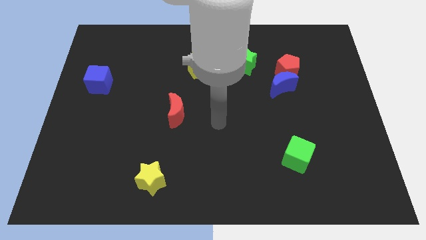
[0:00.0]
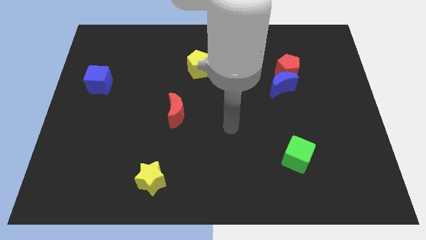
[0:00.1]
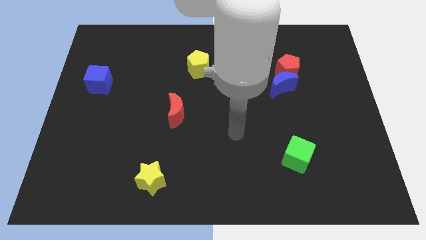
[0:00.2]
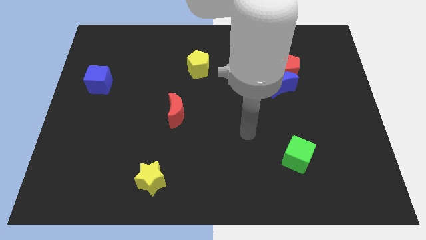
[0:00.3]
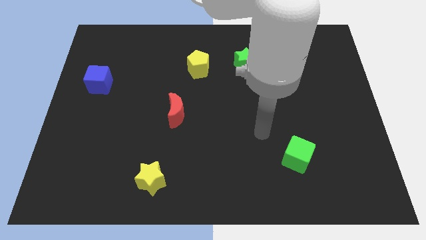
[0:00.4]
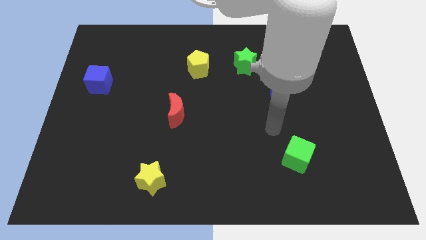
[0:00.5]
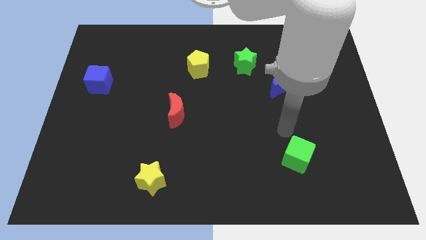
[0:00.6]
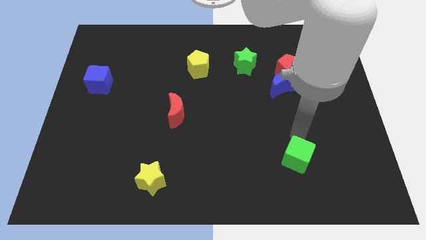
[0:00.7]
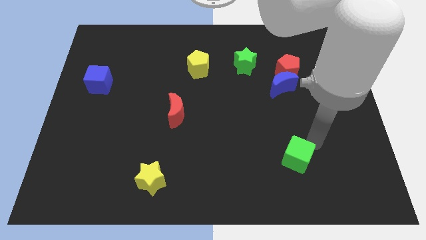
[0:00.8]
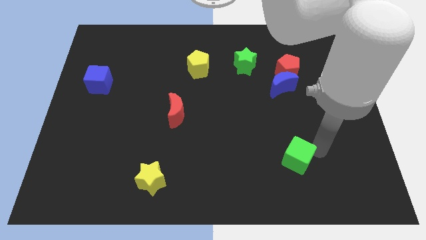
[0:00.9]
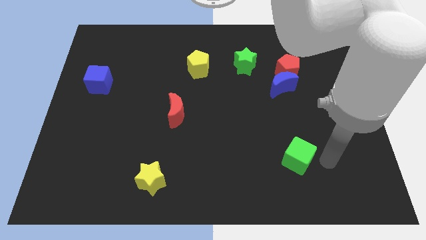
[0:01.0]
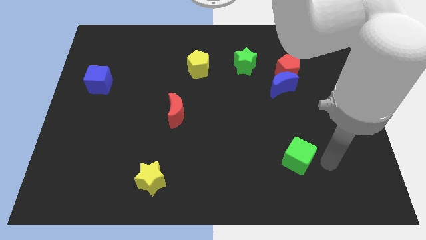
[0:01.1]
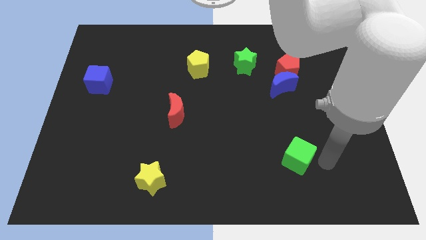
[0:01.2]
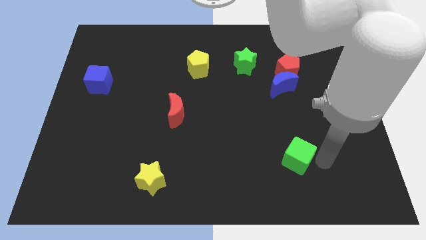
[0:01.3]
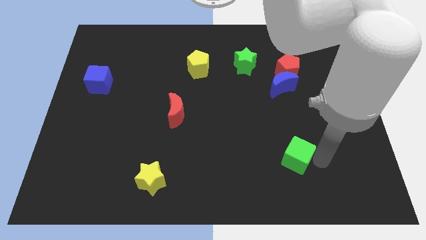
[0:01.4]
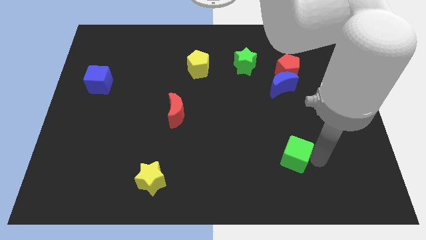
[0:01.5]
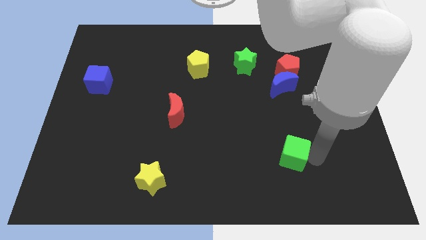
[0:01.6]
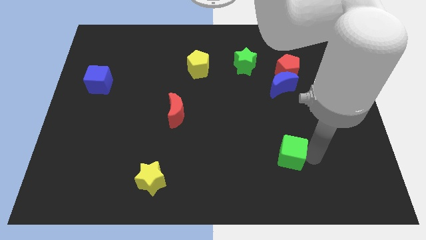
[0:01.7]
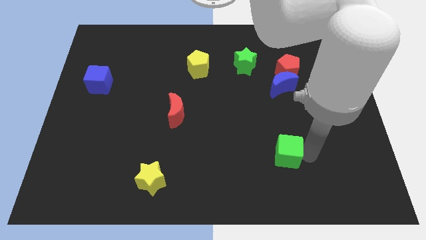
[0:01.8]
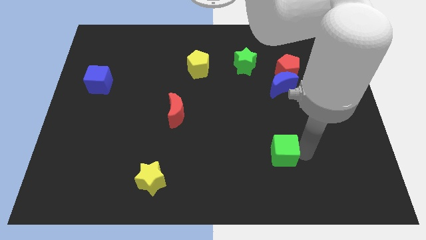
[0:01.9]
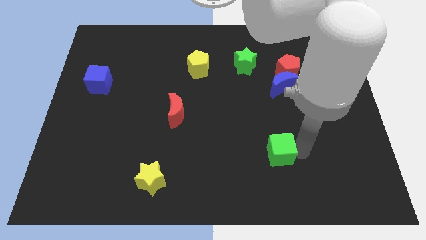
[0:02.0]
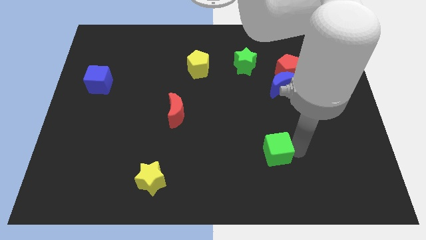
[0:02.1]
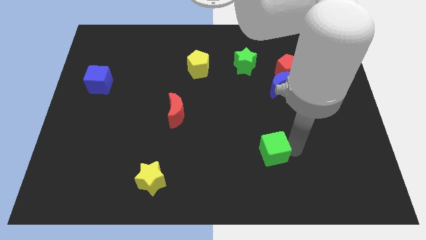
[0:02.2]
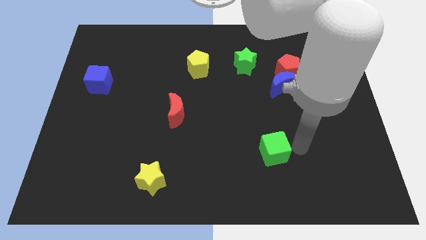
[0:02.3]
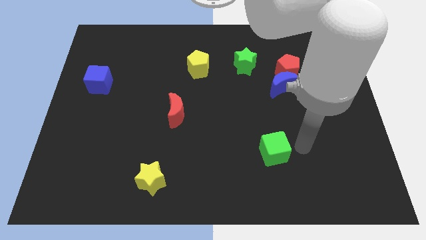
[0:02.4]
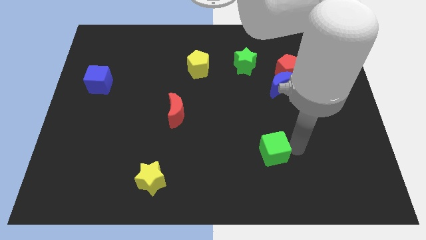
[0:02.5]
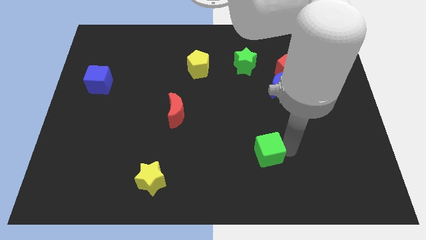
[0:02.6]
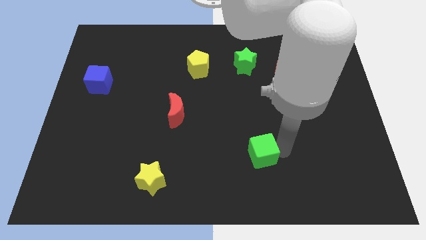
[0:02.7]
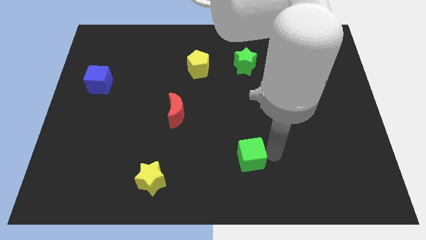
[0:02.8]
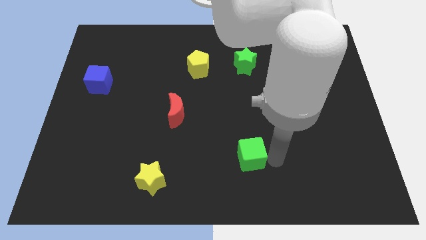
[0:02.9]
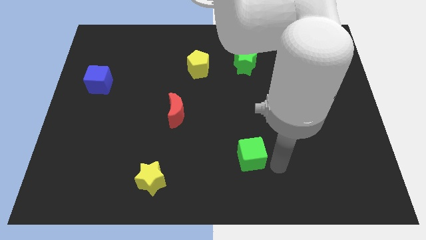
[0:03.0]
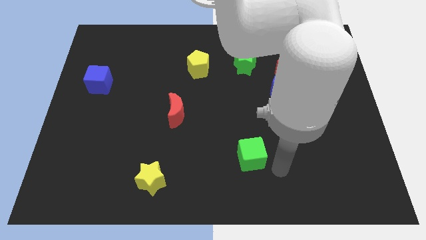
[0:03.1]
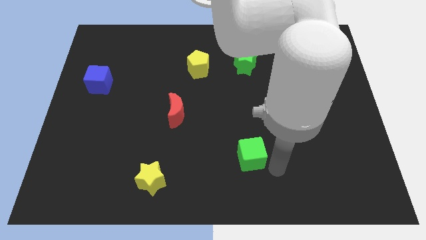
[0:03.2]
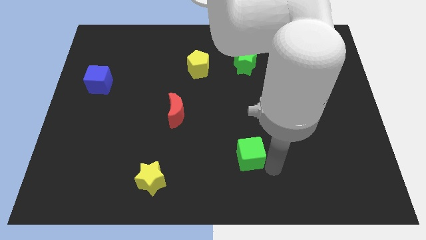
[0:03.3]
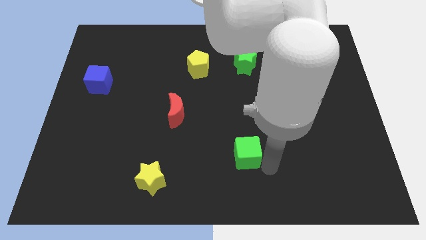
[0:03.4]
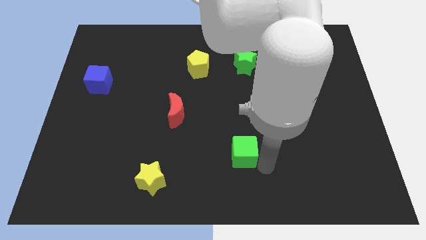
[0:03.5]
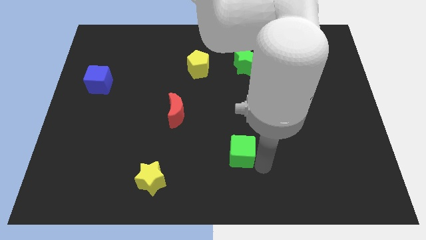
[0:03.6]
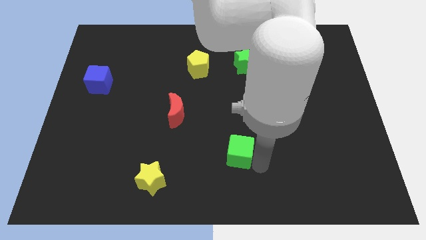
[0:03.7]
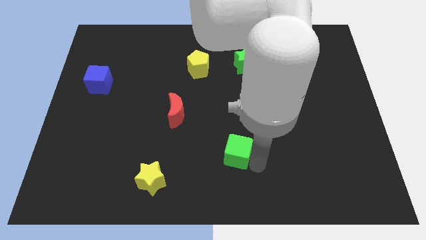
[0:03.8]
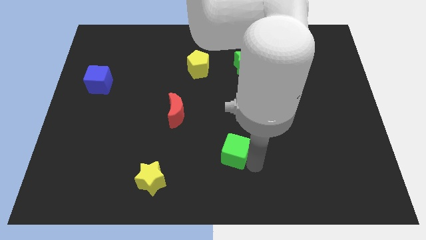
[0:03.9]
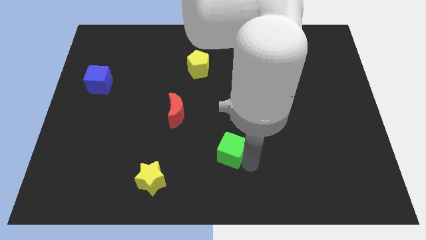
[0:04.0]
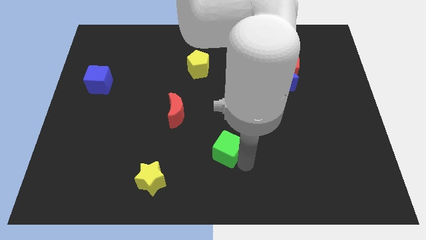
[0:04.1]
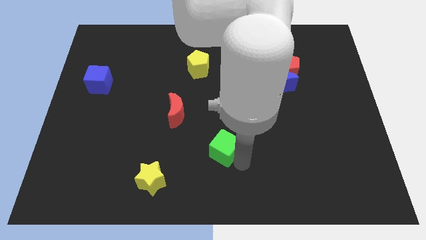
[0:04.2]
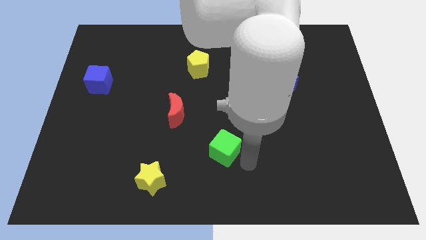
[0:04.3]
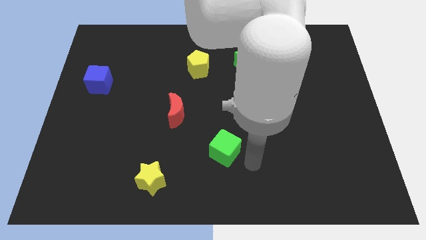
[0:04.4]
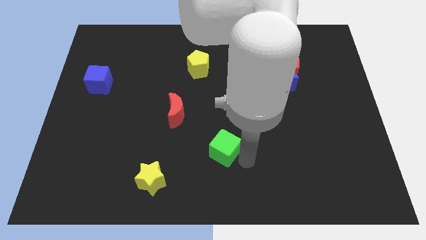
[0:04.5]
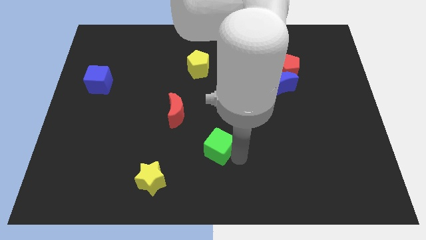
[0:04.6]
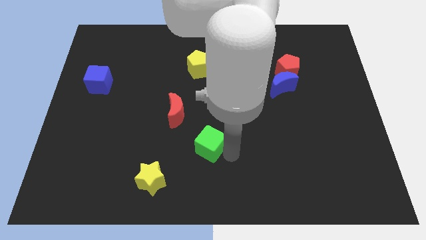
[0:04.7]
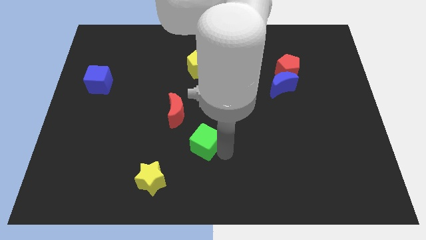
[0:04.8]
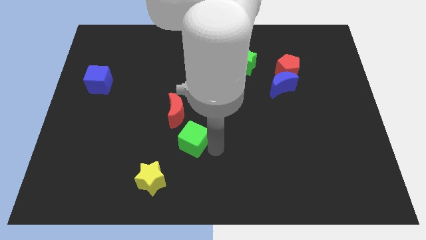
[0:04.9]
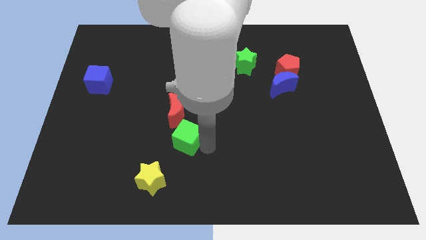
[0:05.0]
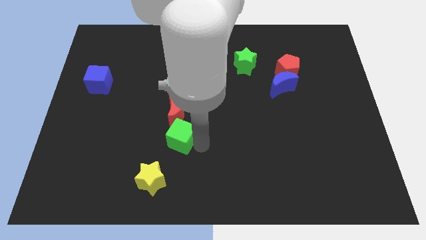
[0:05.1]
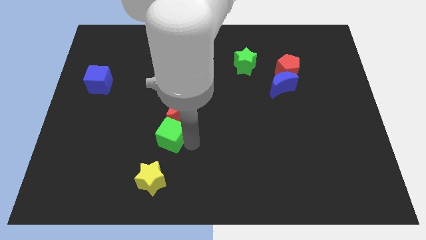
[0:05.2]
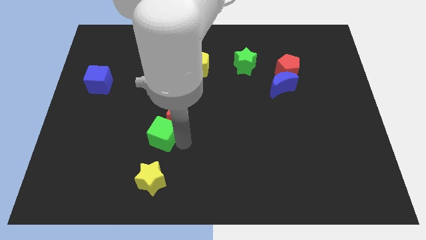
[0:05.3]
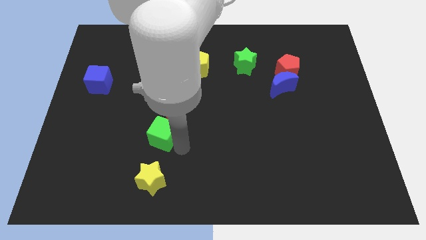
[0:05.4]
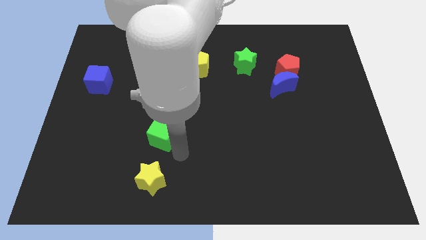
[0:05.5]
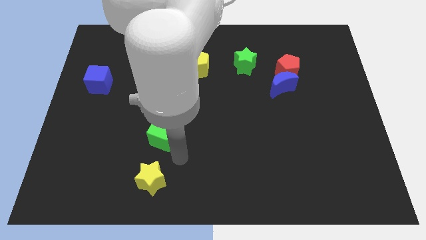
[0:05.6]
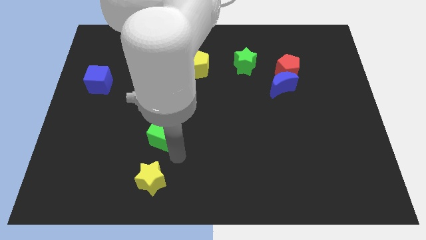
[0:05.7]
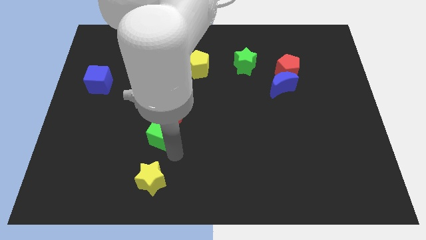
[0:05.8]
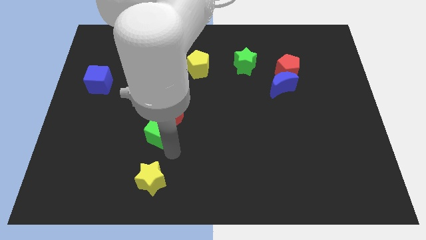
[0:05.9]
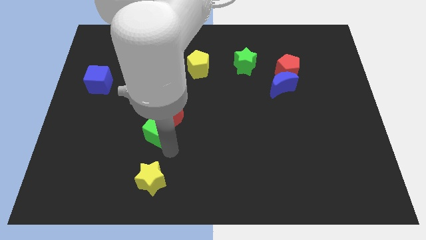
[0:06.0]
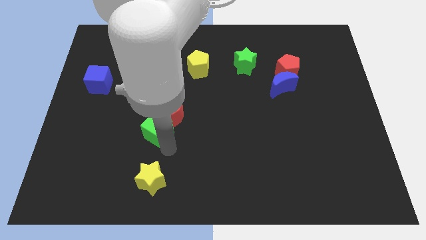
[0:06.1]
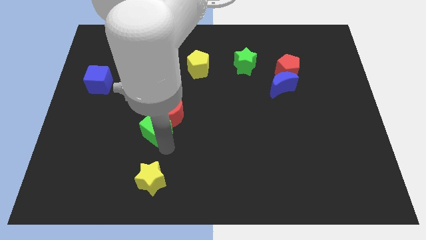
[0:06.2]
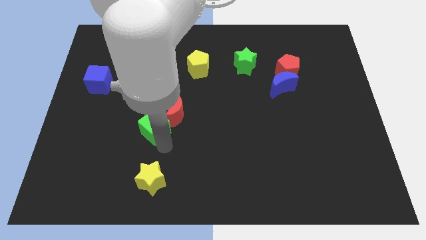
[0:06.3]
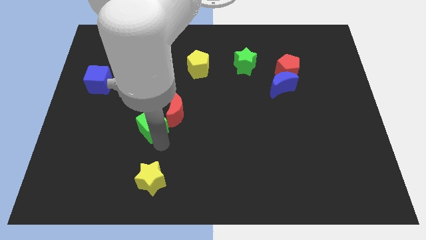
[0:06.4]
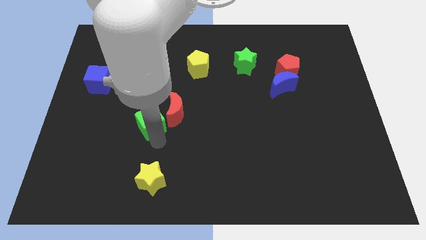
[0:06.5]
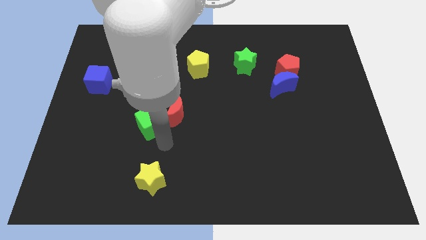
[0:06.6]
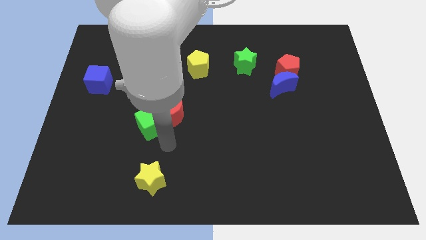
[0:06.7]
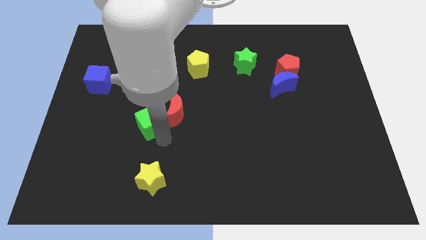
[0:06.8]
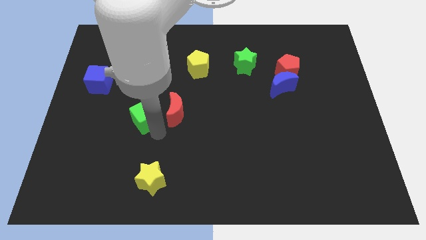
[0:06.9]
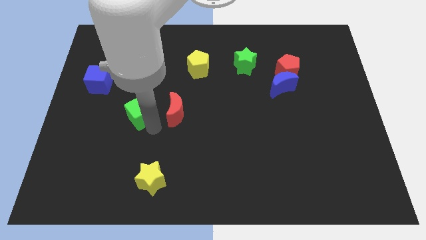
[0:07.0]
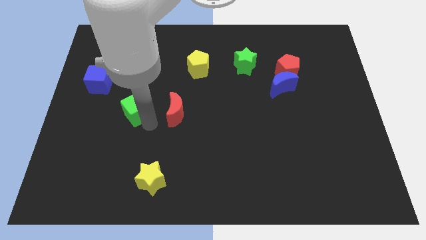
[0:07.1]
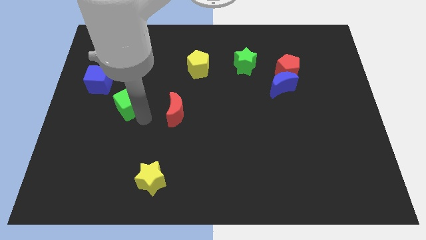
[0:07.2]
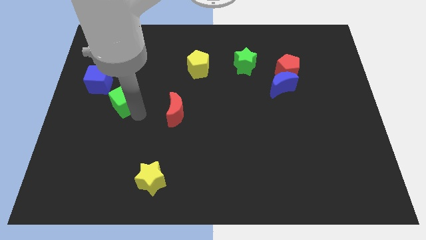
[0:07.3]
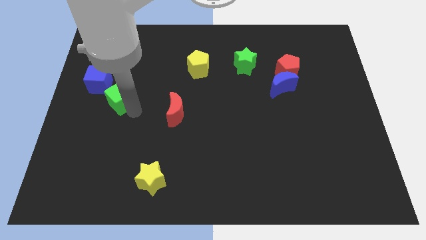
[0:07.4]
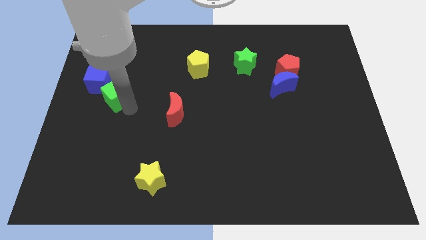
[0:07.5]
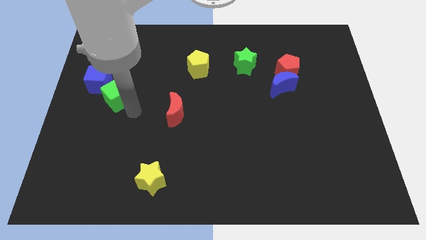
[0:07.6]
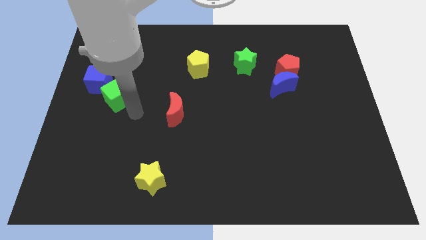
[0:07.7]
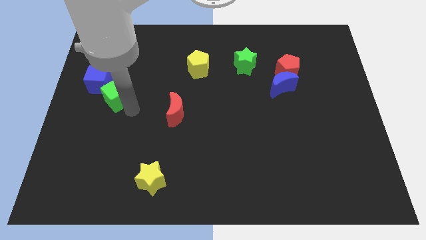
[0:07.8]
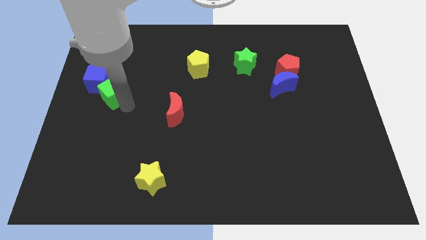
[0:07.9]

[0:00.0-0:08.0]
move the green cube close to the blue cube
